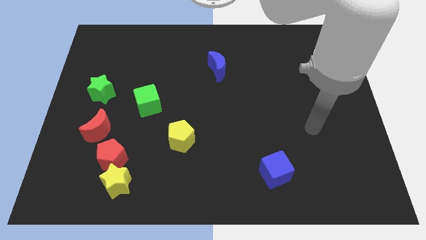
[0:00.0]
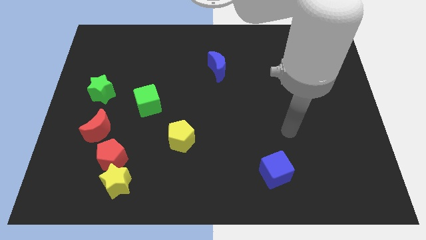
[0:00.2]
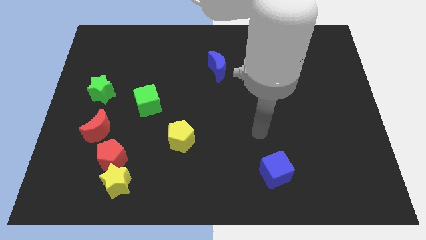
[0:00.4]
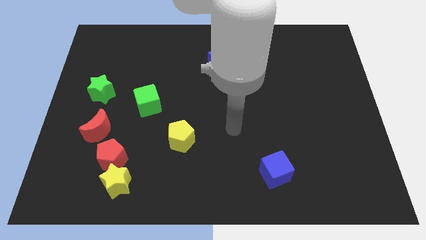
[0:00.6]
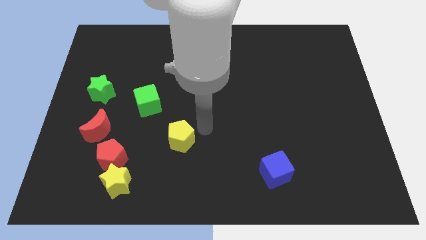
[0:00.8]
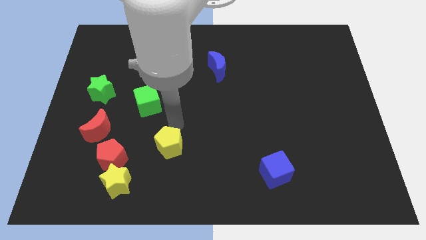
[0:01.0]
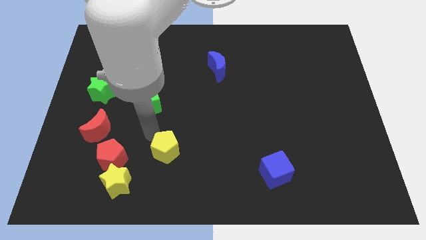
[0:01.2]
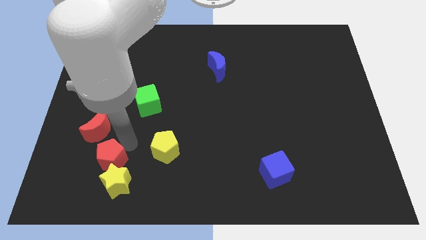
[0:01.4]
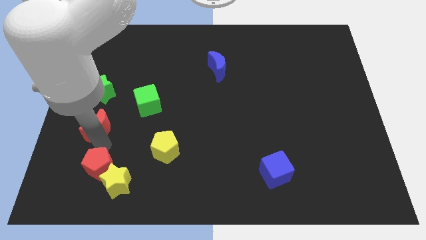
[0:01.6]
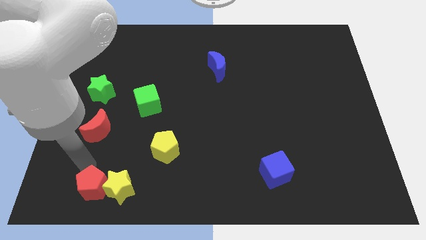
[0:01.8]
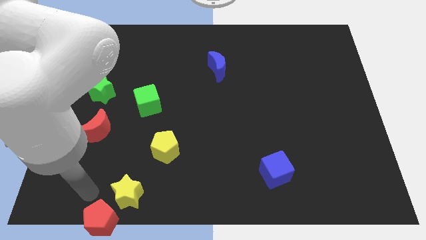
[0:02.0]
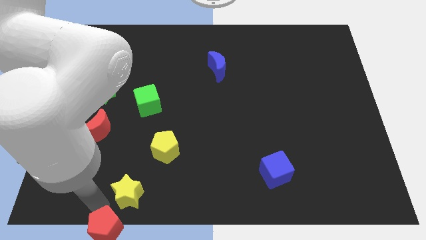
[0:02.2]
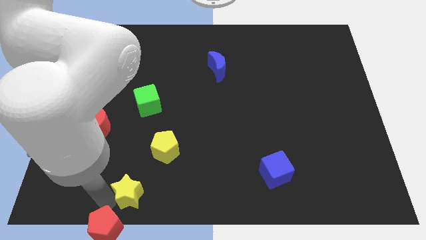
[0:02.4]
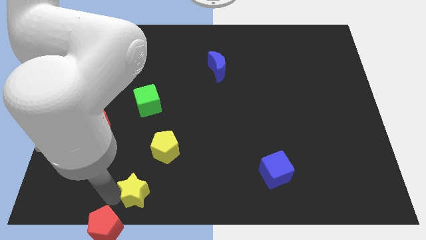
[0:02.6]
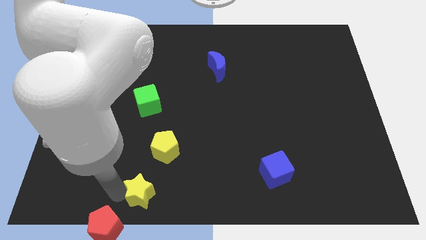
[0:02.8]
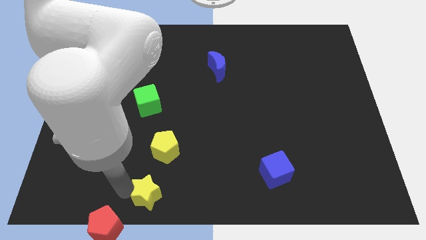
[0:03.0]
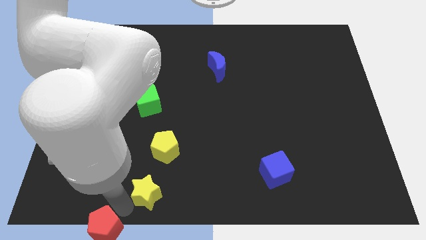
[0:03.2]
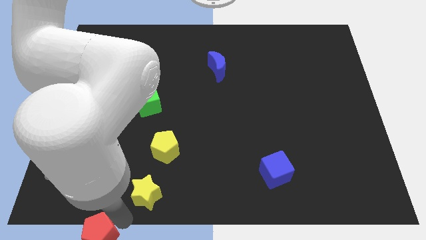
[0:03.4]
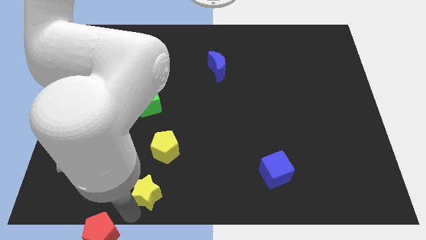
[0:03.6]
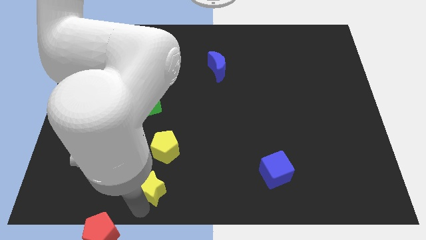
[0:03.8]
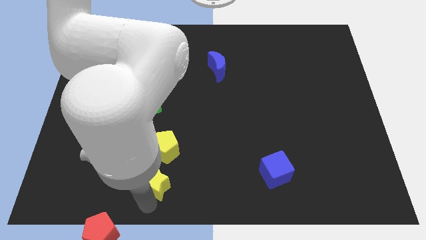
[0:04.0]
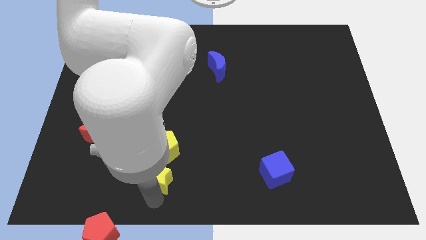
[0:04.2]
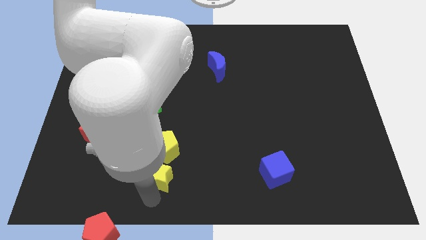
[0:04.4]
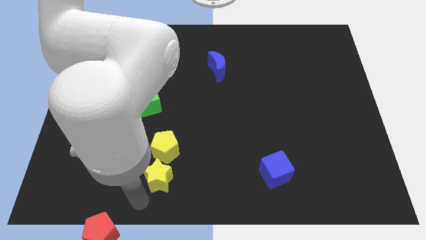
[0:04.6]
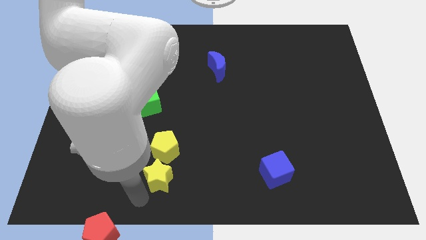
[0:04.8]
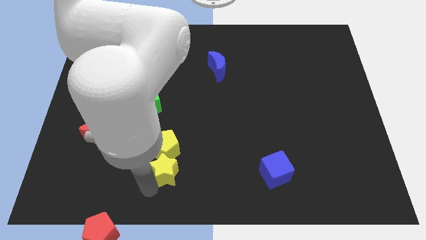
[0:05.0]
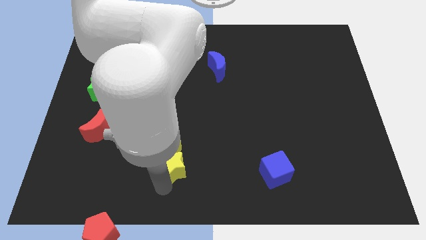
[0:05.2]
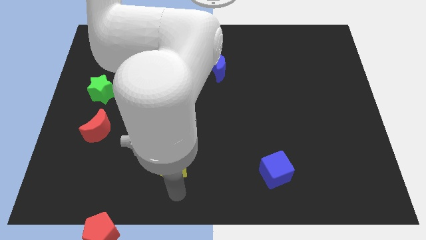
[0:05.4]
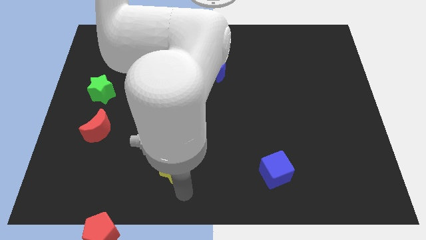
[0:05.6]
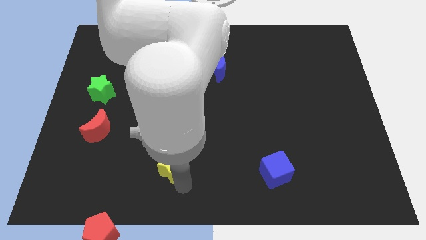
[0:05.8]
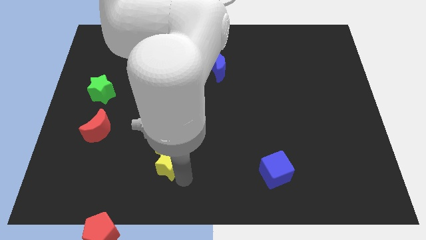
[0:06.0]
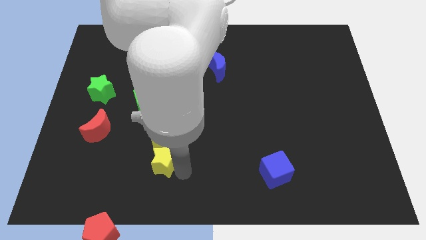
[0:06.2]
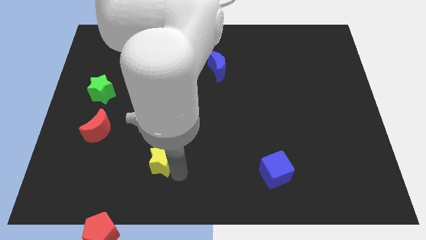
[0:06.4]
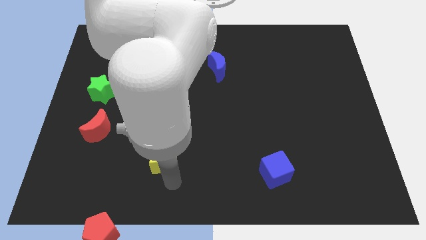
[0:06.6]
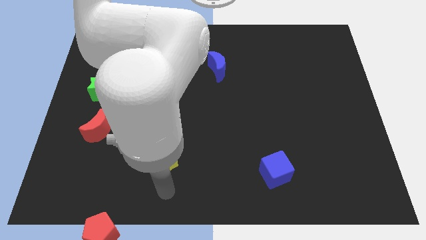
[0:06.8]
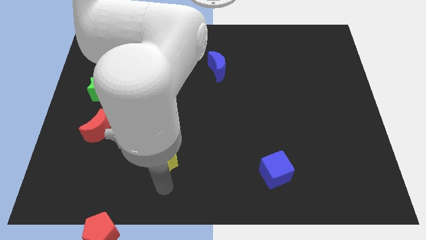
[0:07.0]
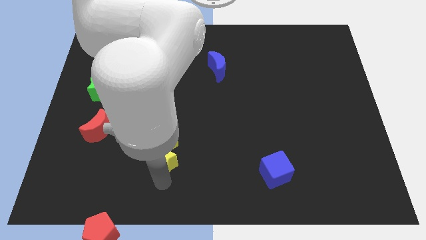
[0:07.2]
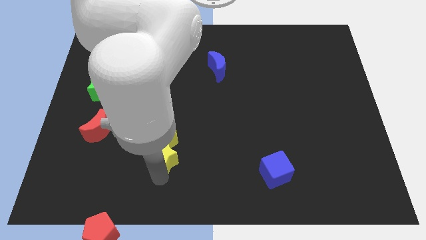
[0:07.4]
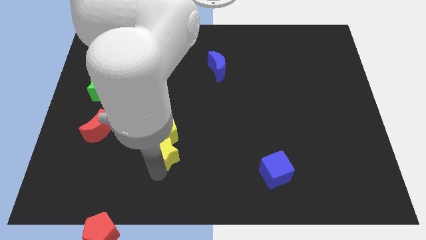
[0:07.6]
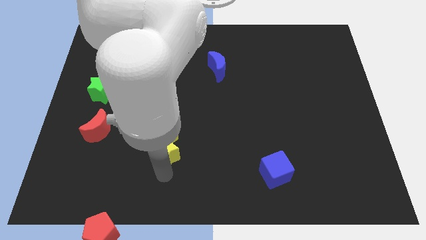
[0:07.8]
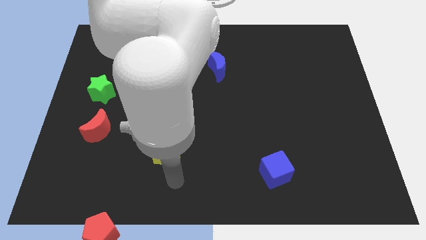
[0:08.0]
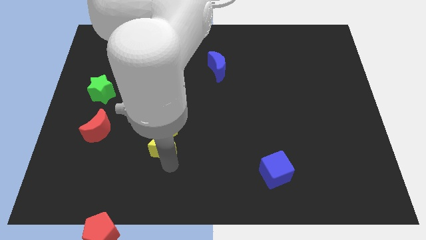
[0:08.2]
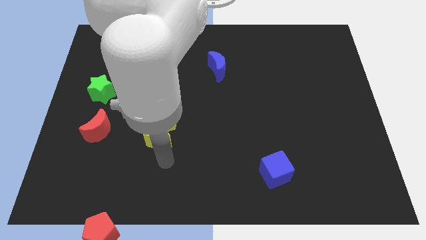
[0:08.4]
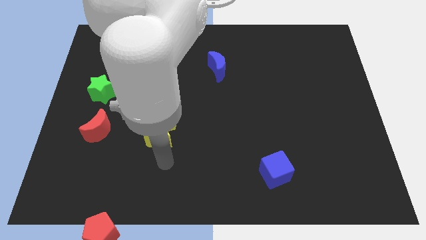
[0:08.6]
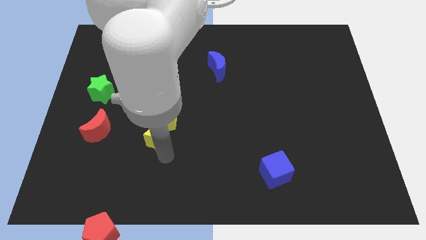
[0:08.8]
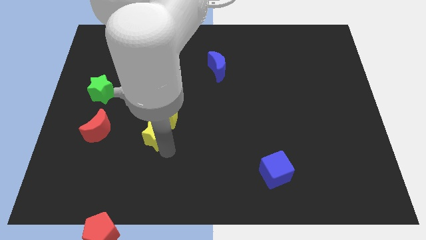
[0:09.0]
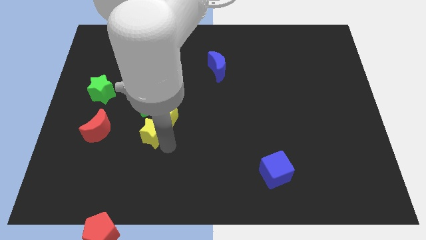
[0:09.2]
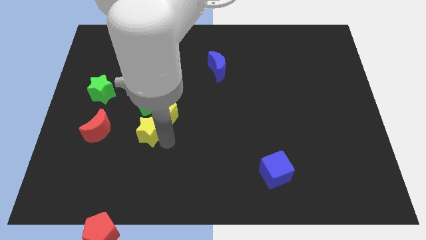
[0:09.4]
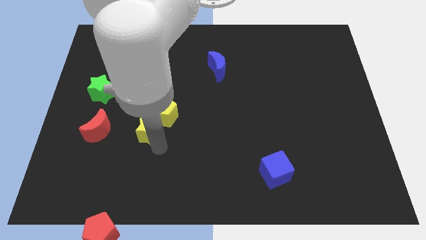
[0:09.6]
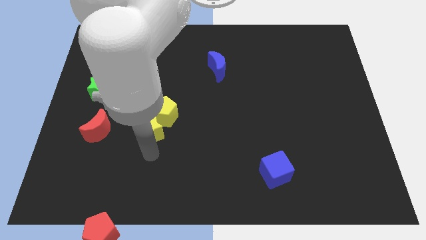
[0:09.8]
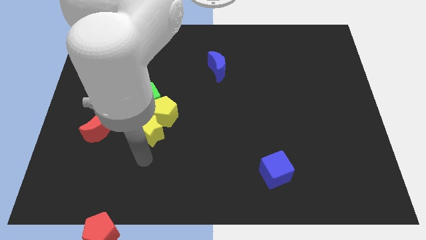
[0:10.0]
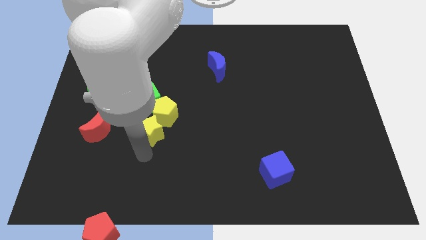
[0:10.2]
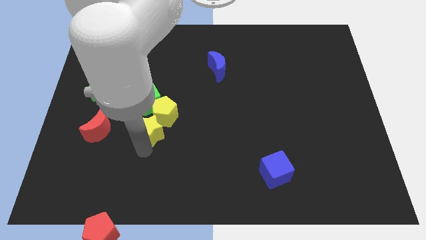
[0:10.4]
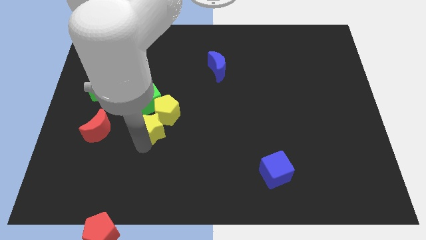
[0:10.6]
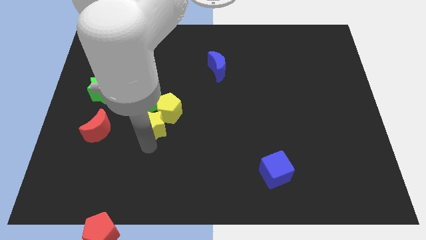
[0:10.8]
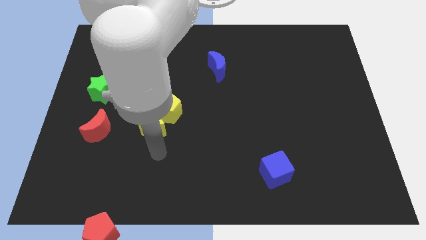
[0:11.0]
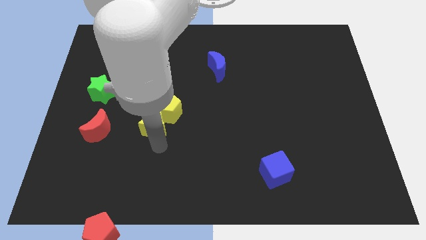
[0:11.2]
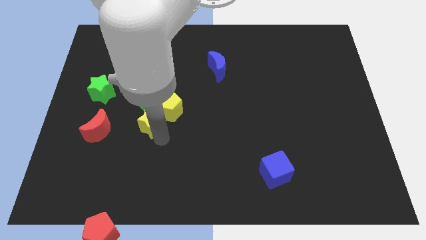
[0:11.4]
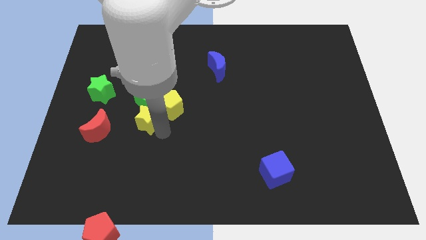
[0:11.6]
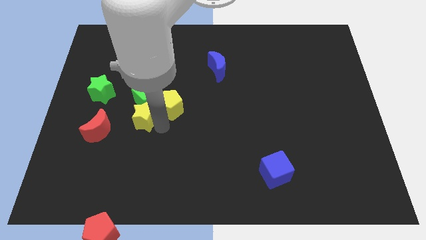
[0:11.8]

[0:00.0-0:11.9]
put the yellow star next to the green cube

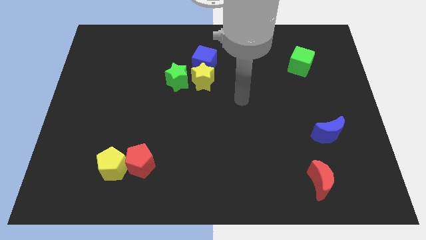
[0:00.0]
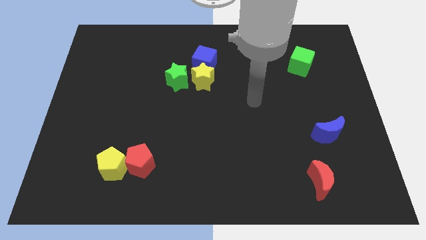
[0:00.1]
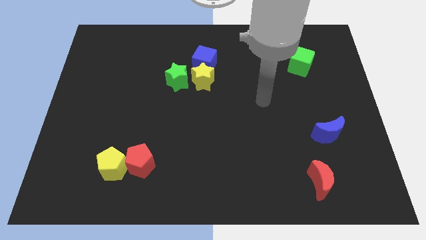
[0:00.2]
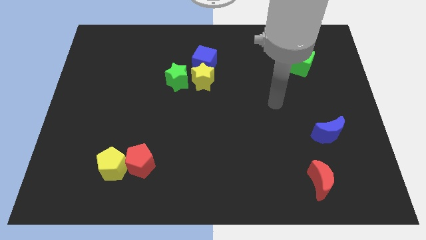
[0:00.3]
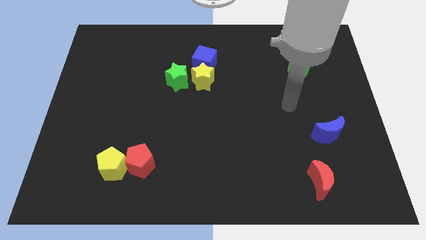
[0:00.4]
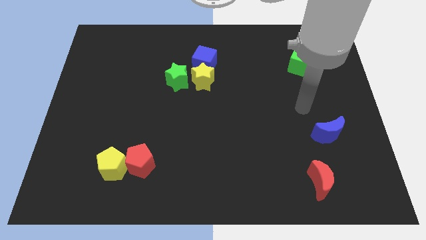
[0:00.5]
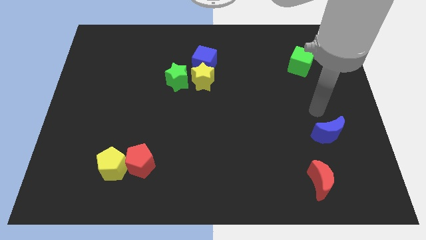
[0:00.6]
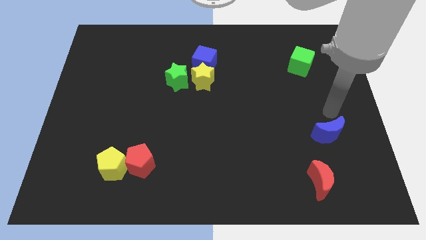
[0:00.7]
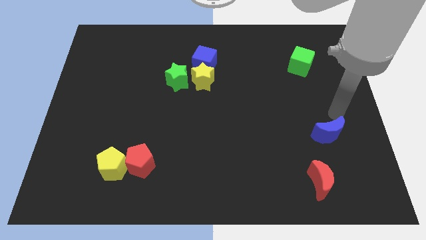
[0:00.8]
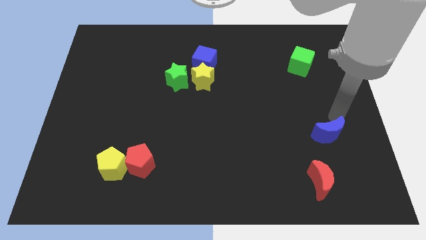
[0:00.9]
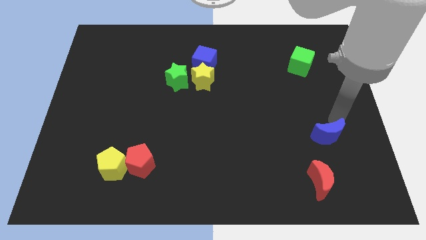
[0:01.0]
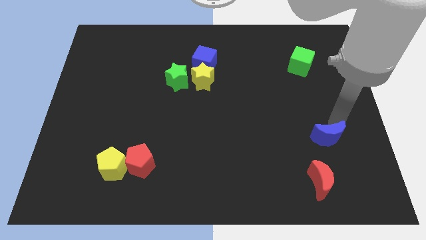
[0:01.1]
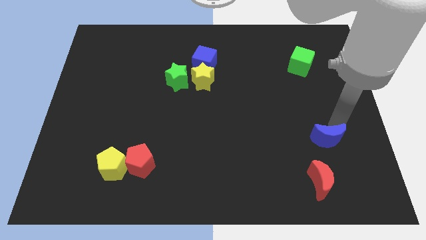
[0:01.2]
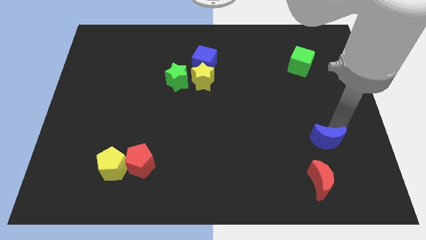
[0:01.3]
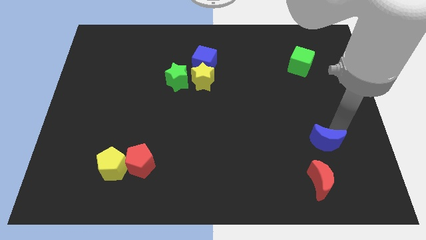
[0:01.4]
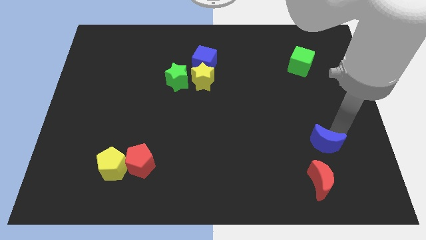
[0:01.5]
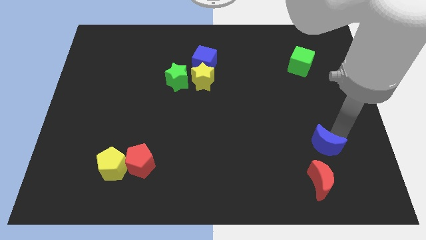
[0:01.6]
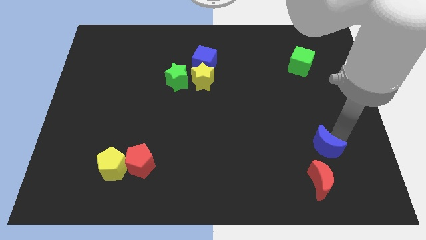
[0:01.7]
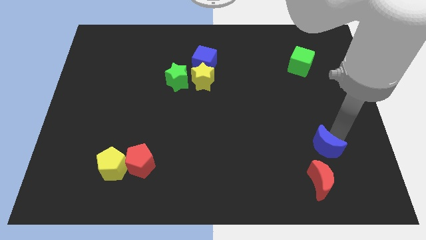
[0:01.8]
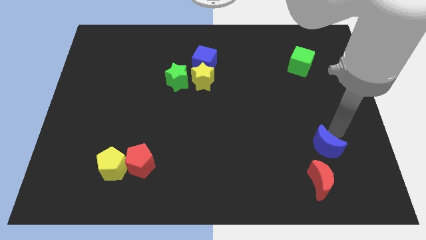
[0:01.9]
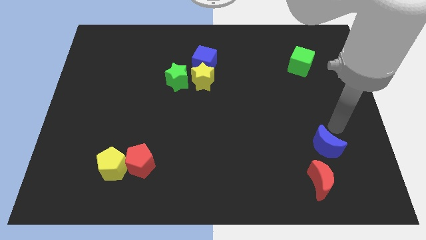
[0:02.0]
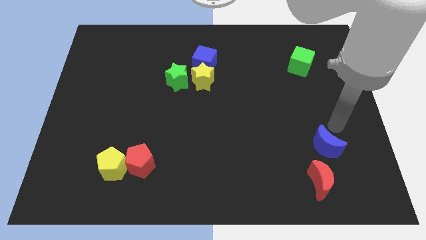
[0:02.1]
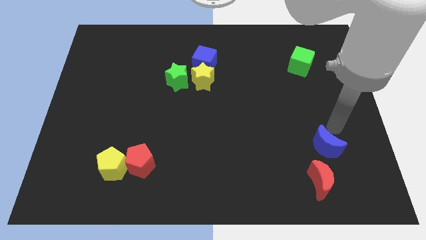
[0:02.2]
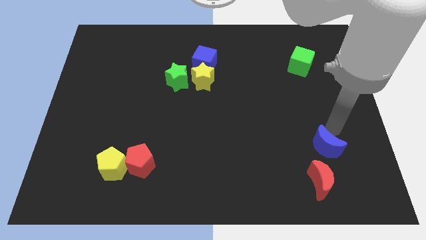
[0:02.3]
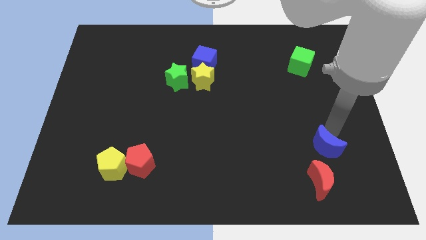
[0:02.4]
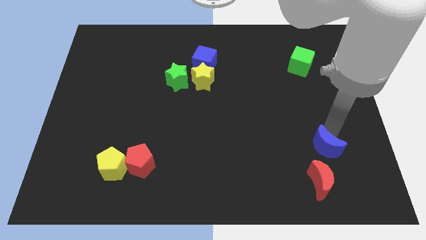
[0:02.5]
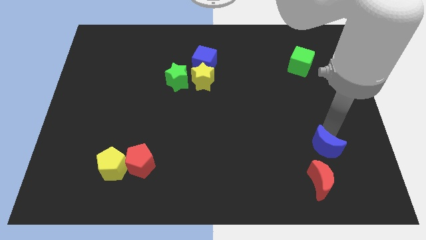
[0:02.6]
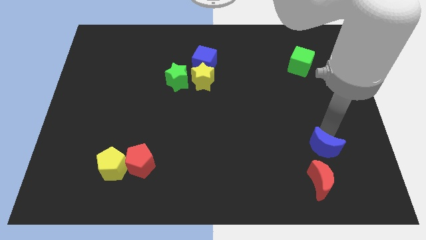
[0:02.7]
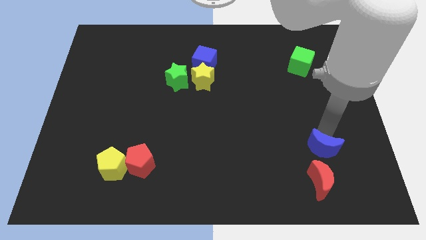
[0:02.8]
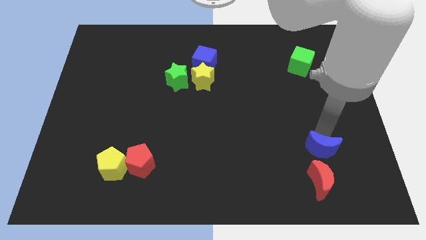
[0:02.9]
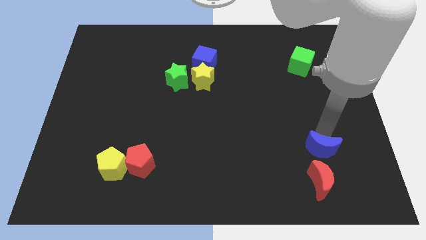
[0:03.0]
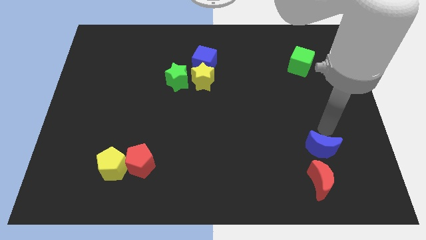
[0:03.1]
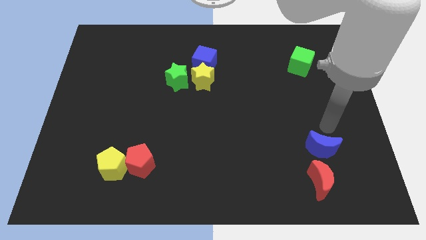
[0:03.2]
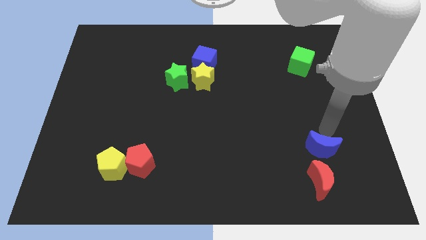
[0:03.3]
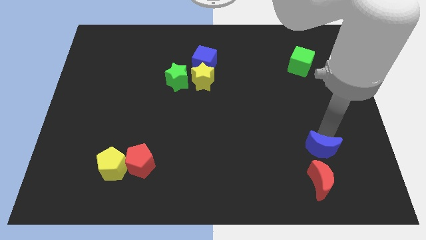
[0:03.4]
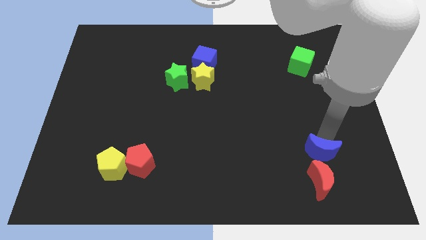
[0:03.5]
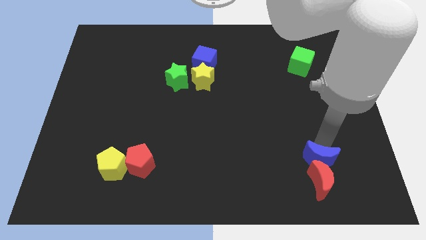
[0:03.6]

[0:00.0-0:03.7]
move the blue moon to the red moon
